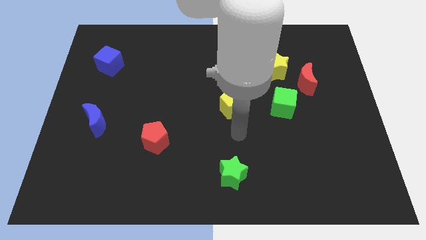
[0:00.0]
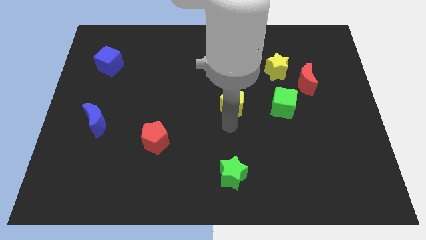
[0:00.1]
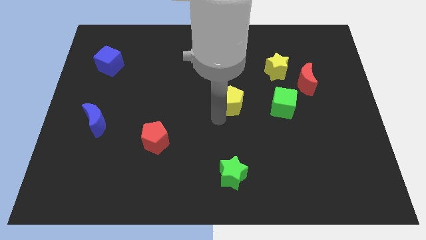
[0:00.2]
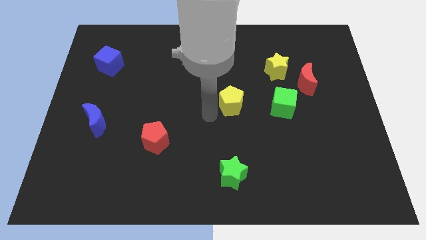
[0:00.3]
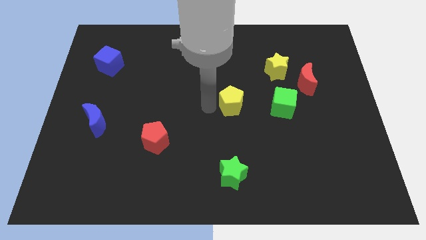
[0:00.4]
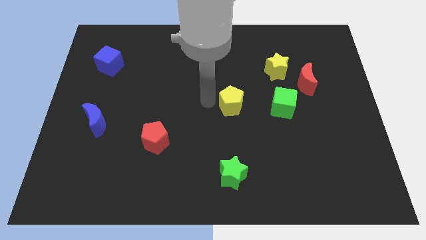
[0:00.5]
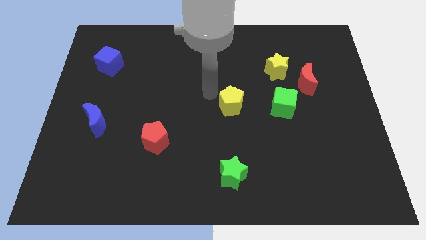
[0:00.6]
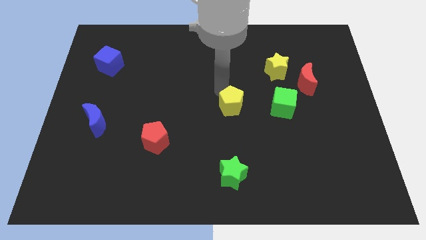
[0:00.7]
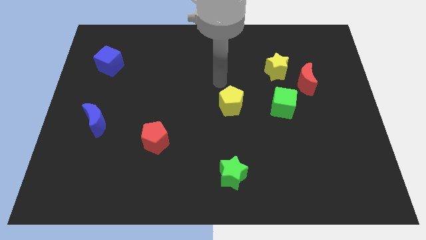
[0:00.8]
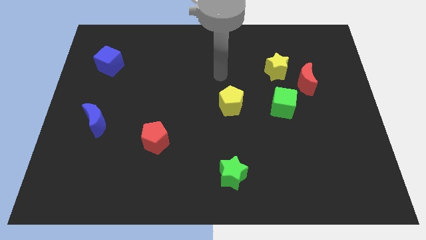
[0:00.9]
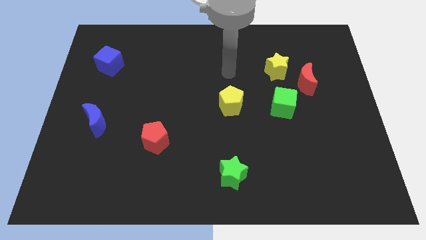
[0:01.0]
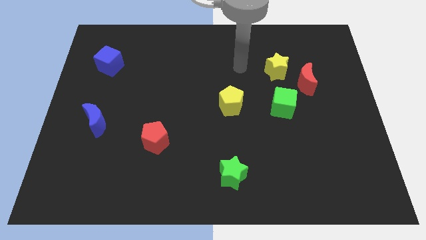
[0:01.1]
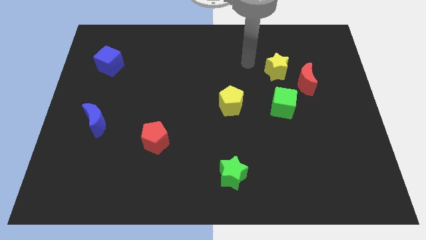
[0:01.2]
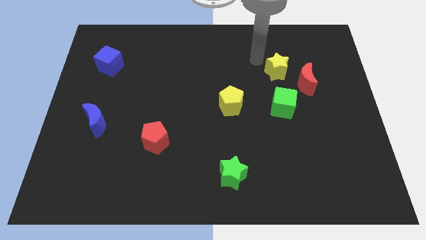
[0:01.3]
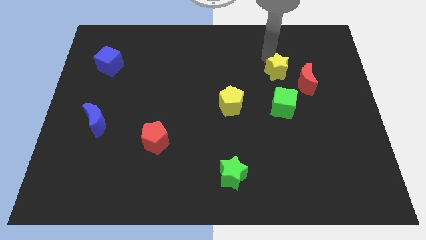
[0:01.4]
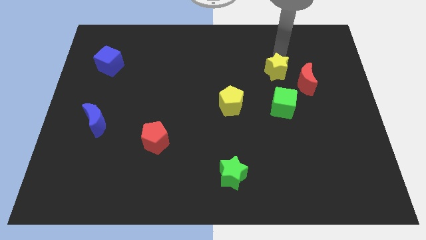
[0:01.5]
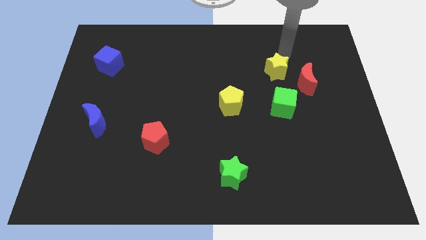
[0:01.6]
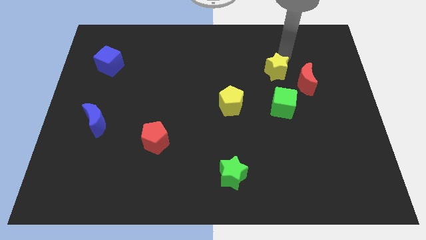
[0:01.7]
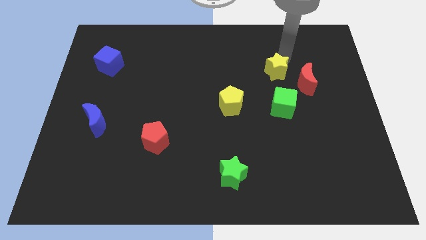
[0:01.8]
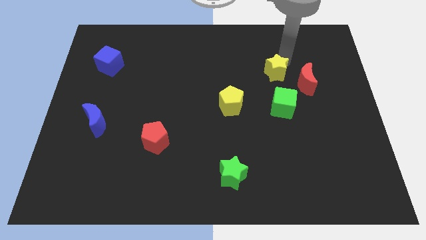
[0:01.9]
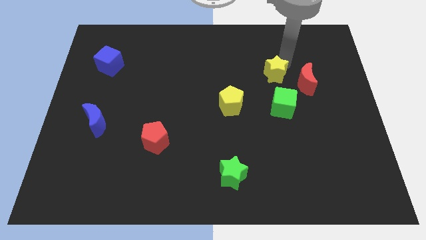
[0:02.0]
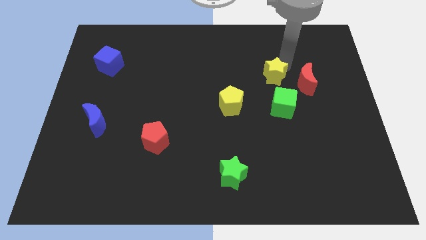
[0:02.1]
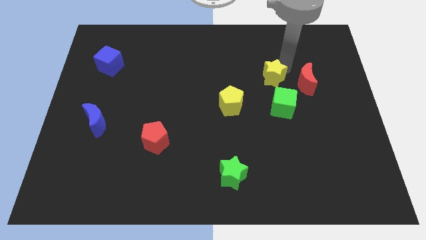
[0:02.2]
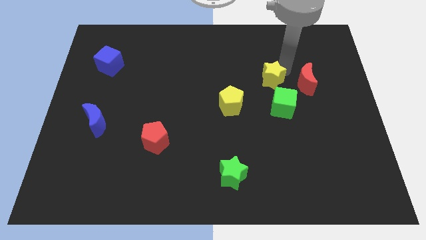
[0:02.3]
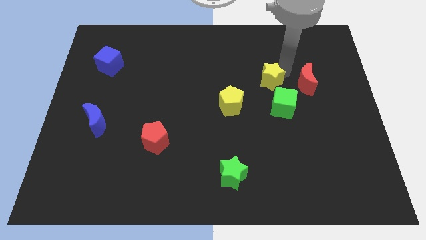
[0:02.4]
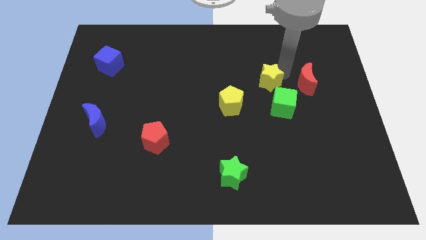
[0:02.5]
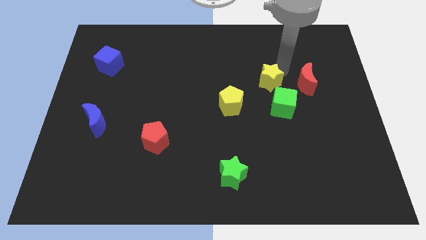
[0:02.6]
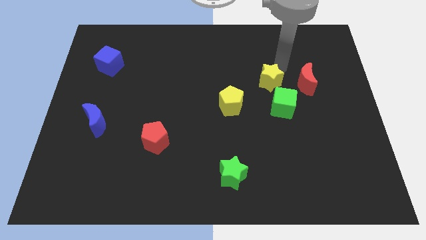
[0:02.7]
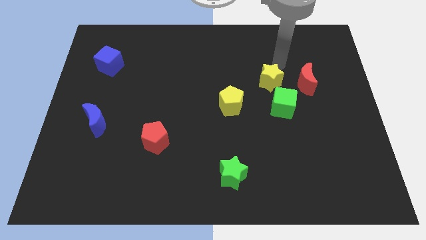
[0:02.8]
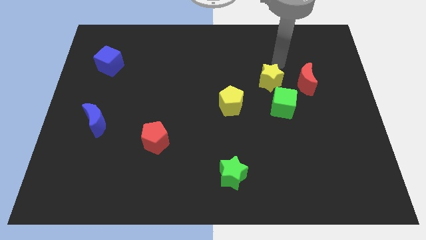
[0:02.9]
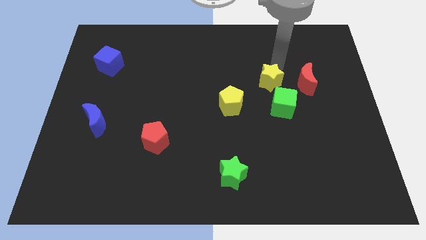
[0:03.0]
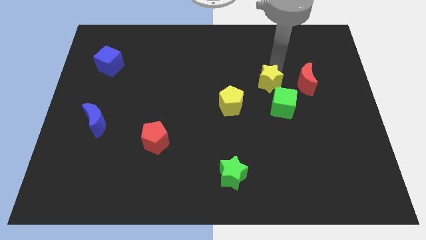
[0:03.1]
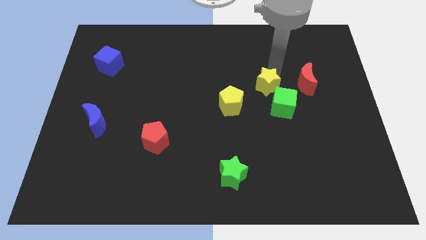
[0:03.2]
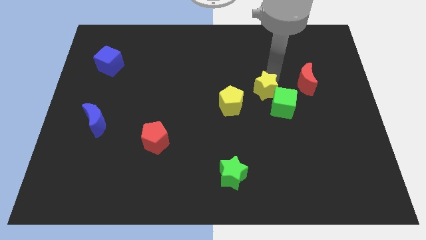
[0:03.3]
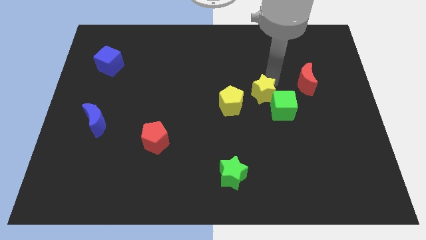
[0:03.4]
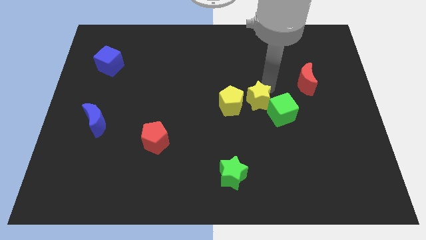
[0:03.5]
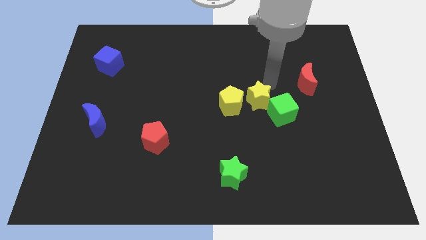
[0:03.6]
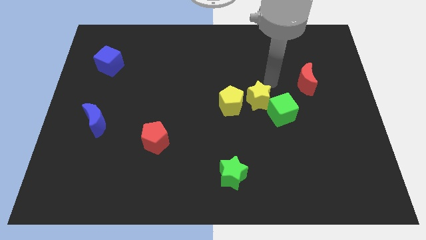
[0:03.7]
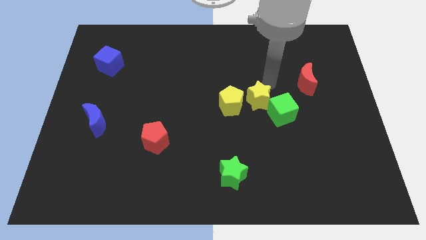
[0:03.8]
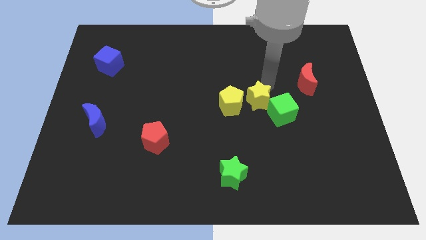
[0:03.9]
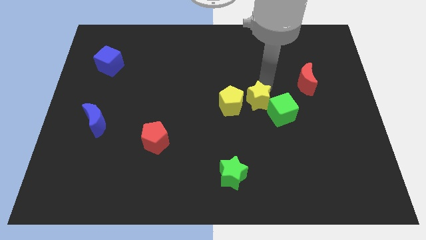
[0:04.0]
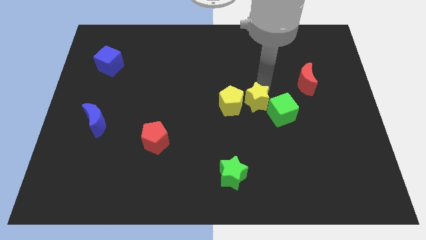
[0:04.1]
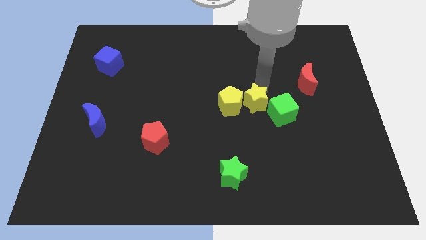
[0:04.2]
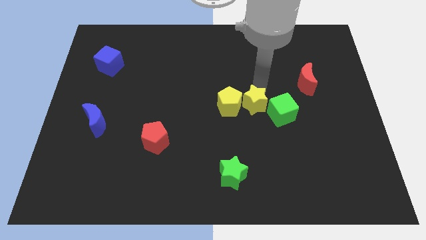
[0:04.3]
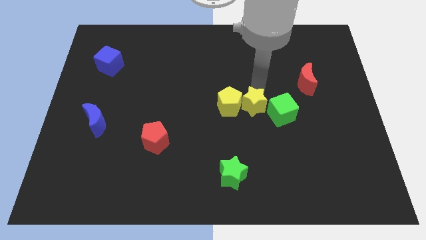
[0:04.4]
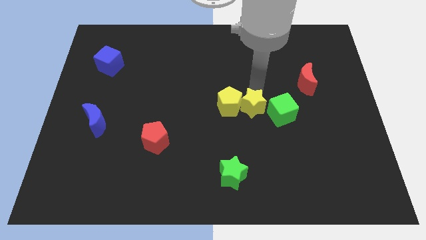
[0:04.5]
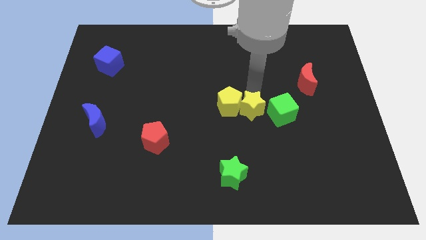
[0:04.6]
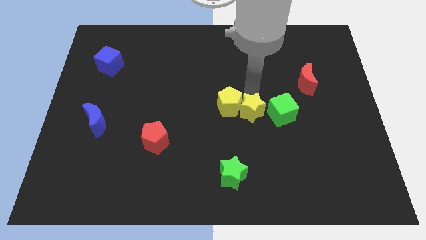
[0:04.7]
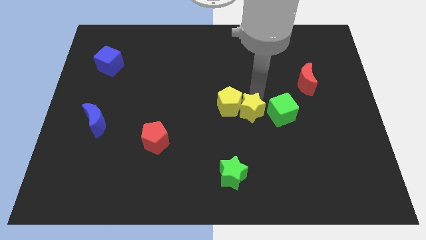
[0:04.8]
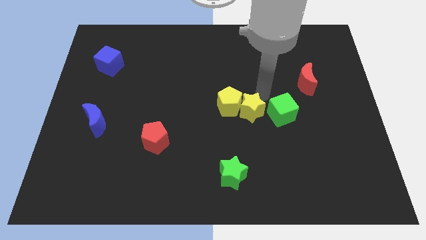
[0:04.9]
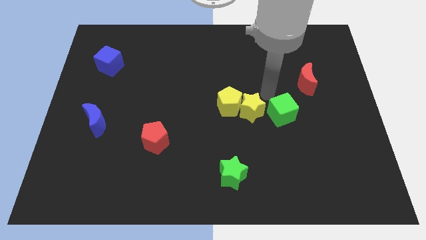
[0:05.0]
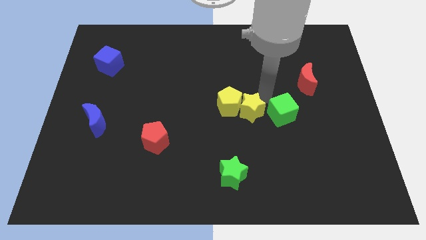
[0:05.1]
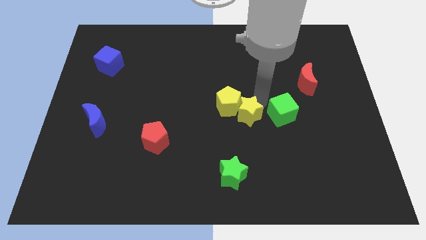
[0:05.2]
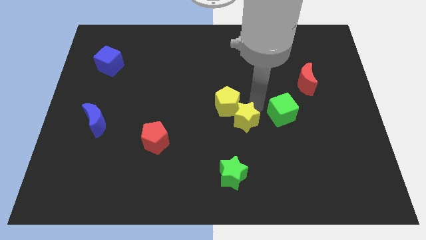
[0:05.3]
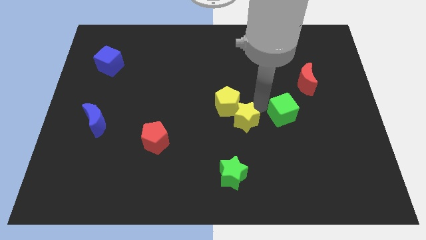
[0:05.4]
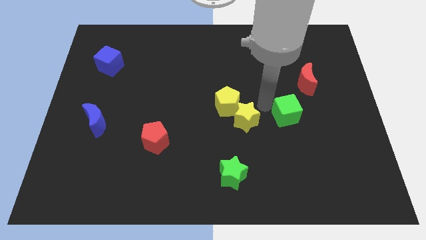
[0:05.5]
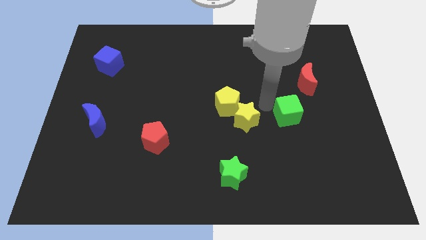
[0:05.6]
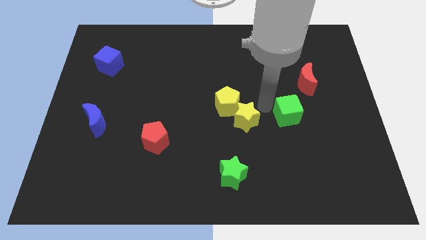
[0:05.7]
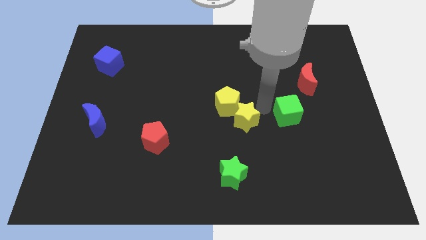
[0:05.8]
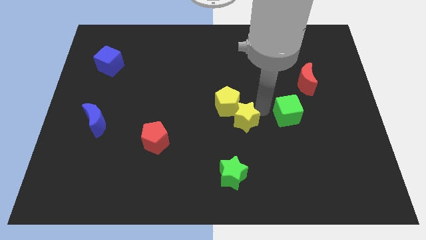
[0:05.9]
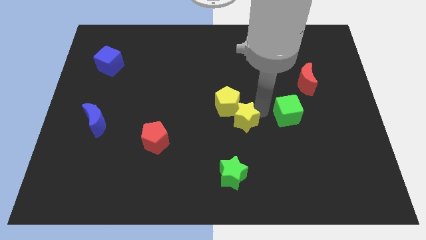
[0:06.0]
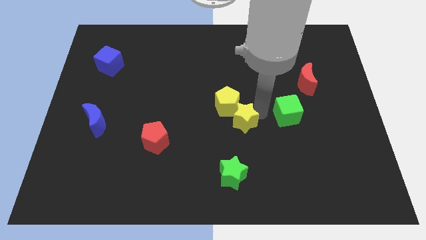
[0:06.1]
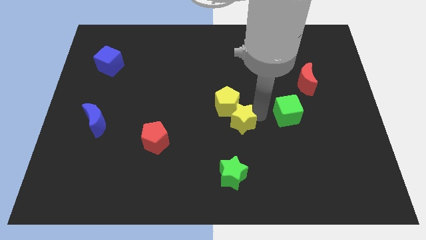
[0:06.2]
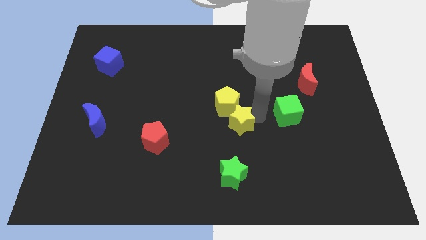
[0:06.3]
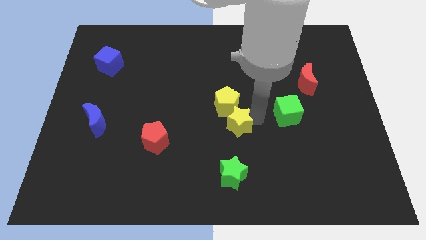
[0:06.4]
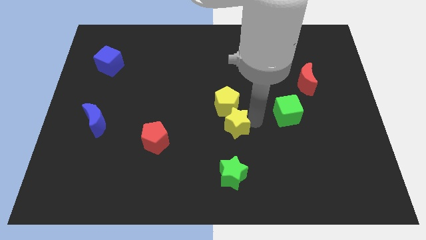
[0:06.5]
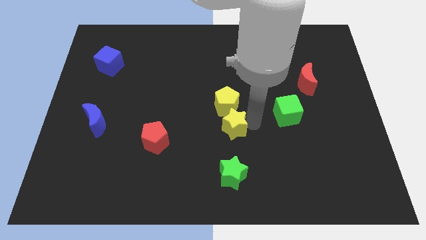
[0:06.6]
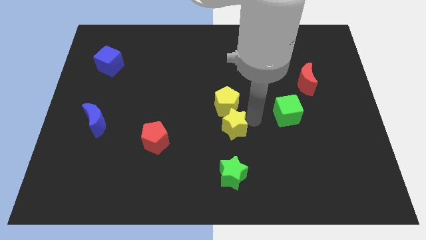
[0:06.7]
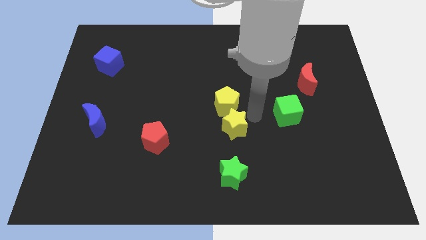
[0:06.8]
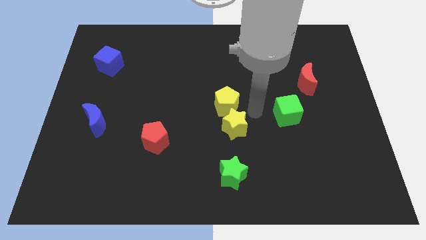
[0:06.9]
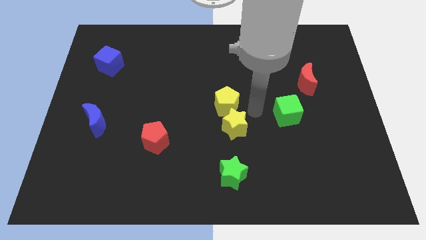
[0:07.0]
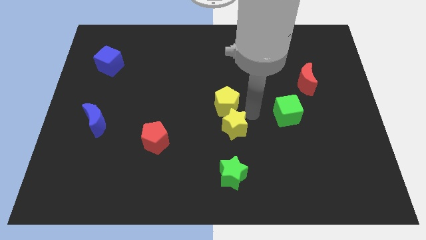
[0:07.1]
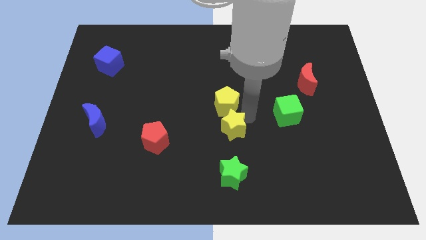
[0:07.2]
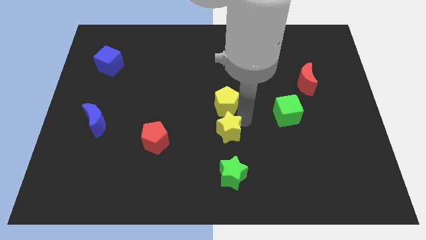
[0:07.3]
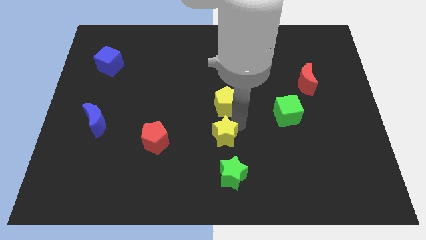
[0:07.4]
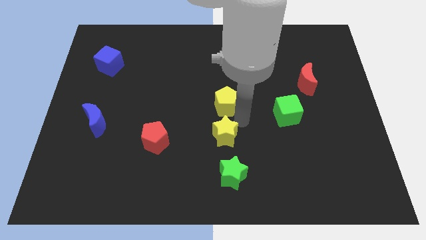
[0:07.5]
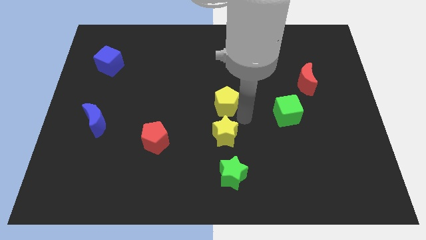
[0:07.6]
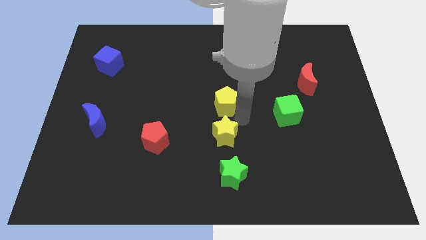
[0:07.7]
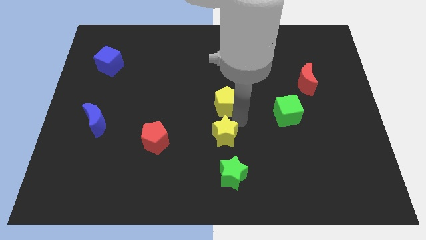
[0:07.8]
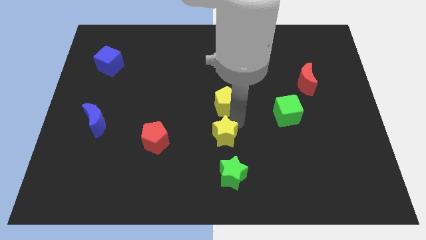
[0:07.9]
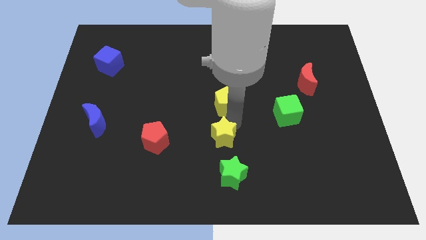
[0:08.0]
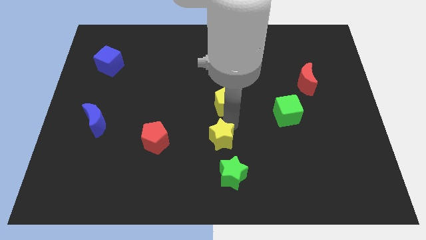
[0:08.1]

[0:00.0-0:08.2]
slide the yellow star diagonally up and to the left of the green star
